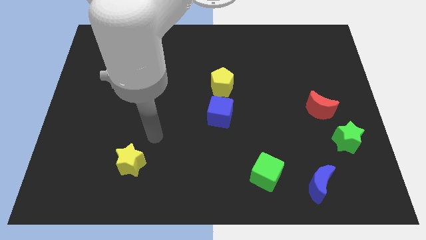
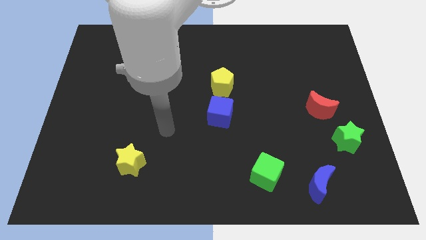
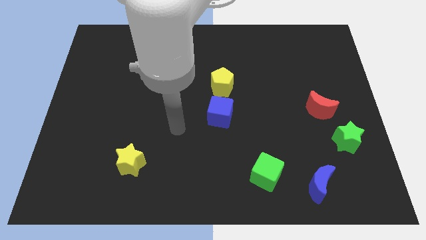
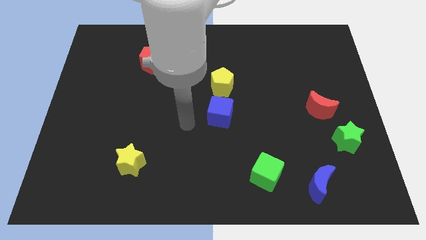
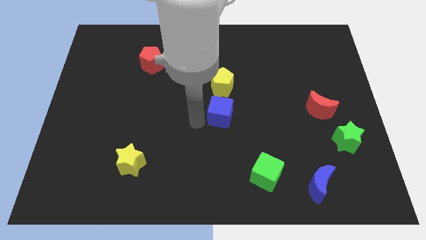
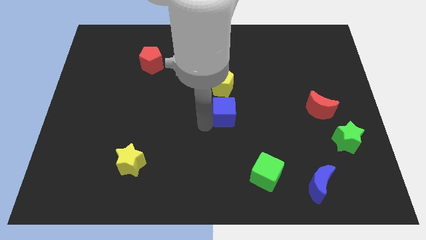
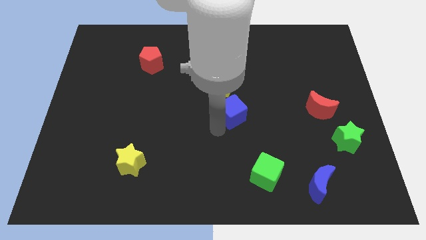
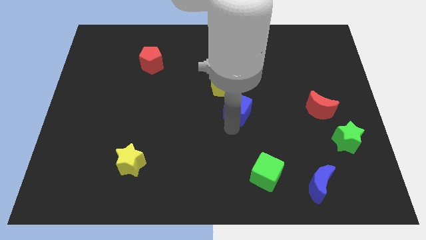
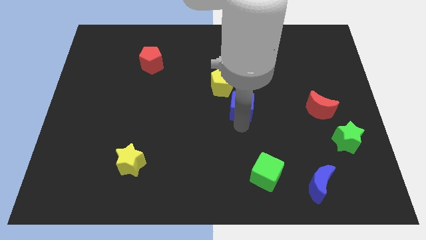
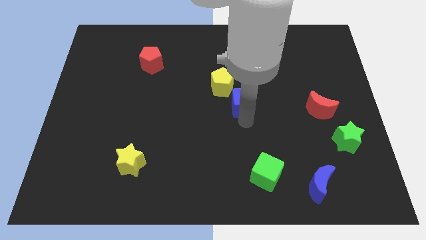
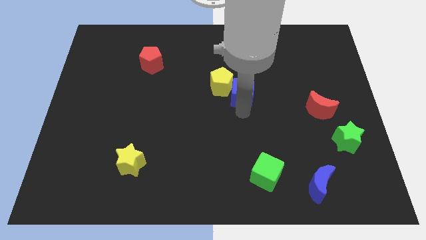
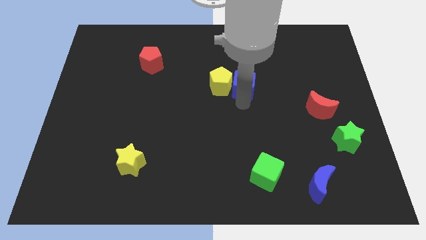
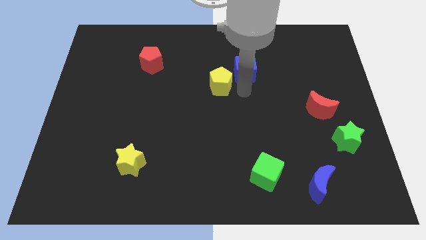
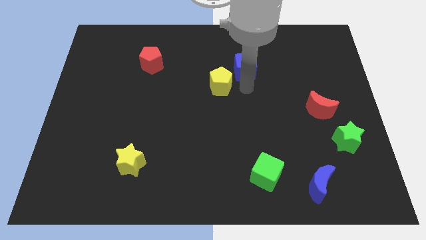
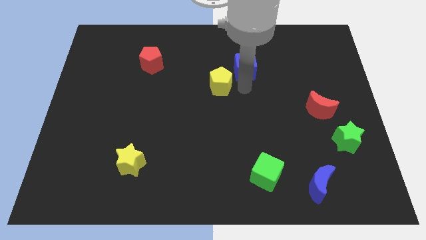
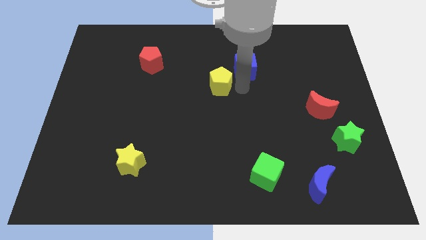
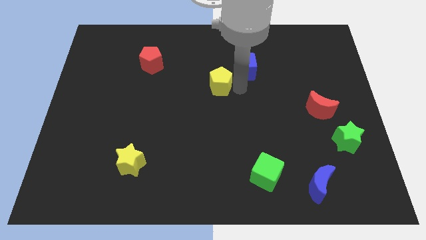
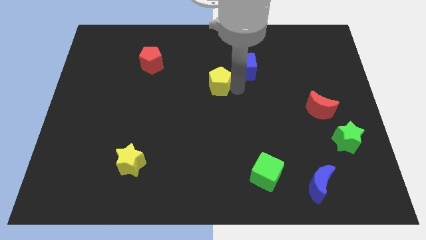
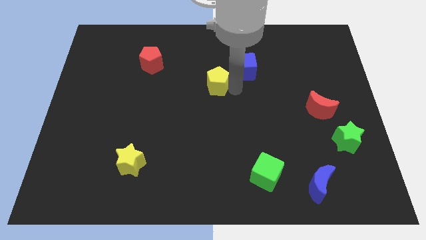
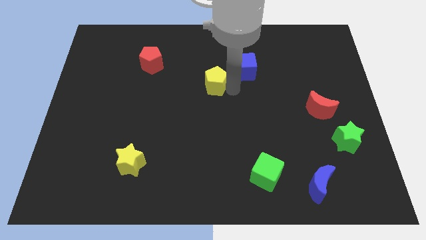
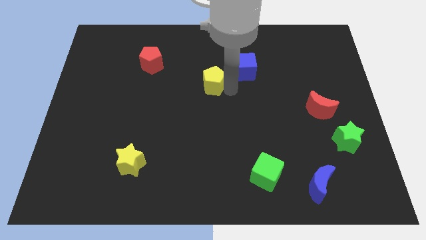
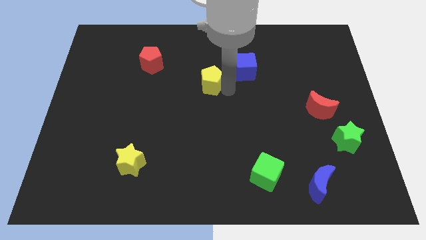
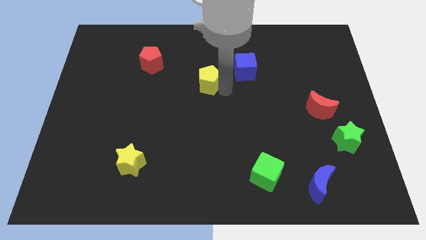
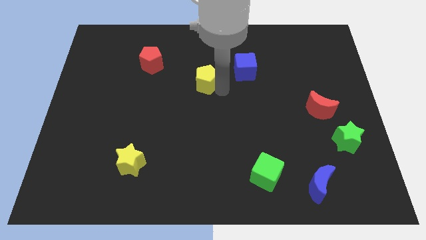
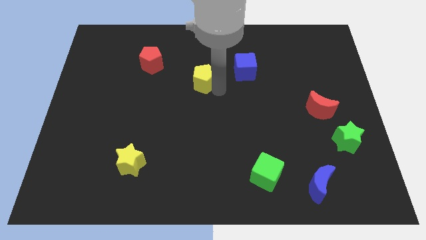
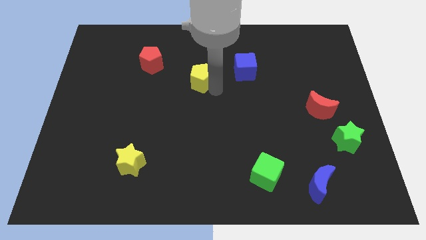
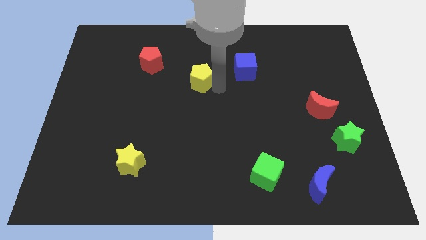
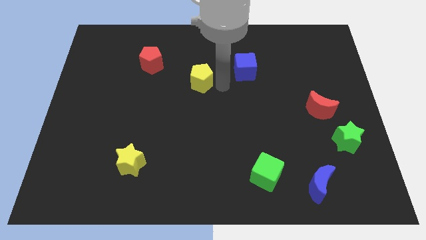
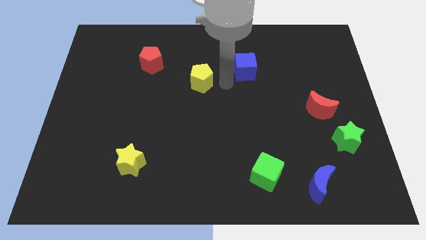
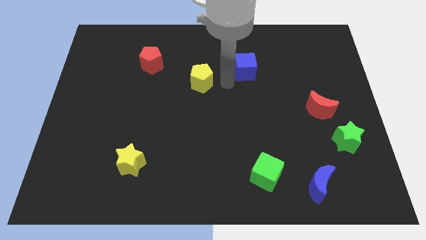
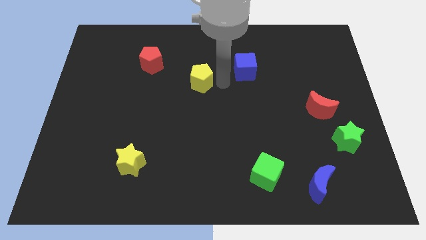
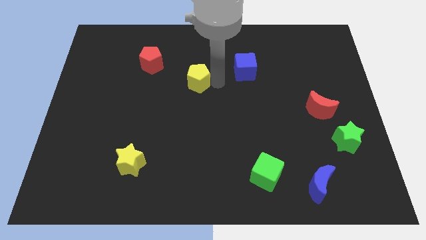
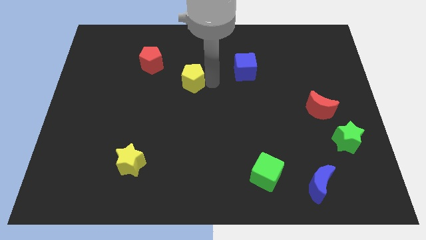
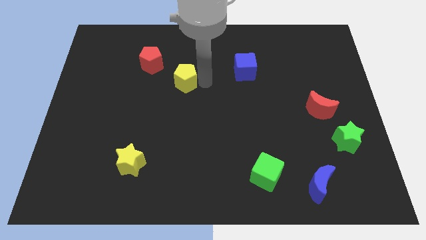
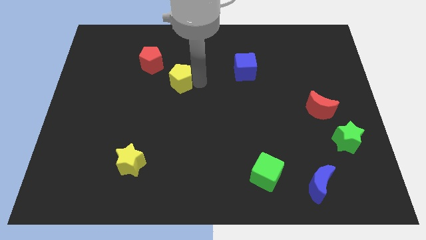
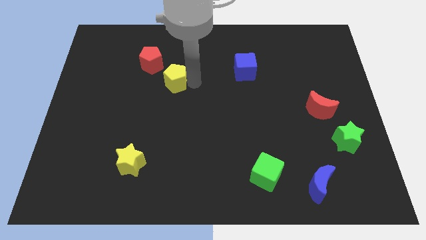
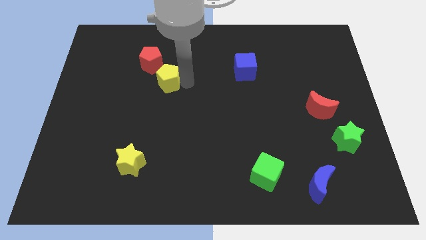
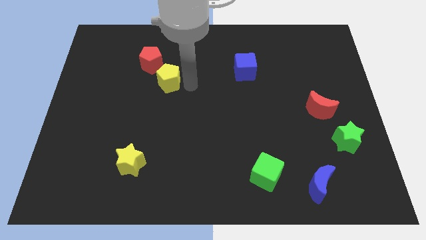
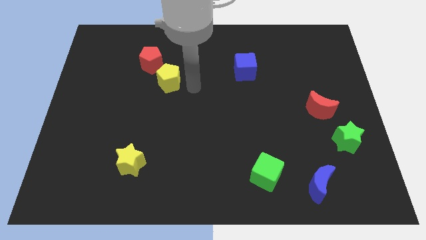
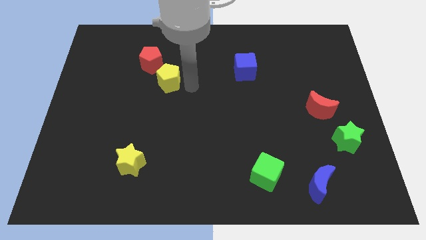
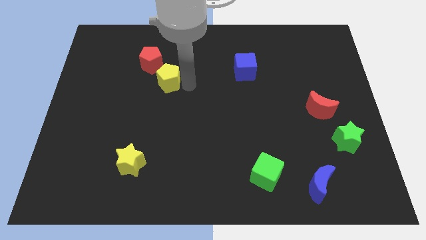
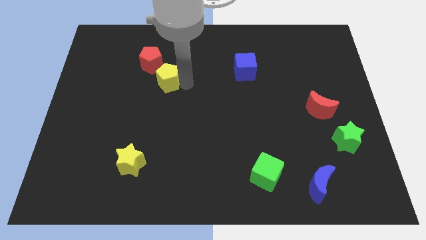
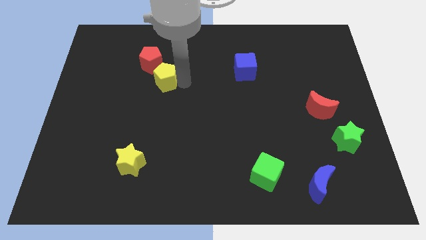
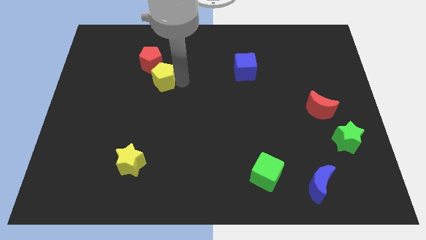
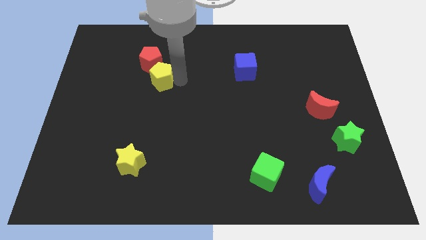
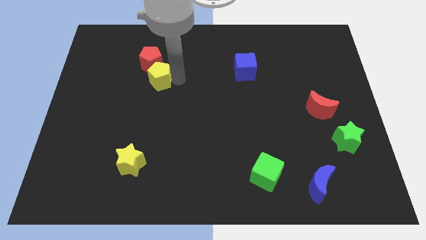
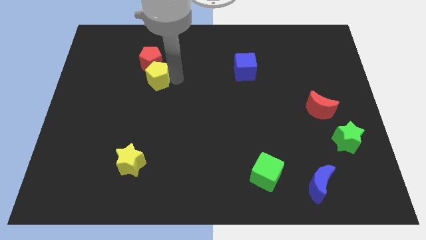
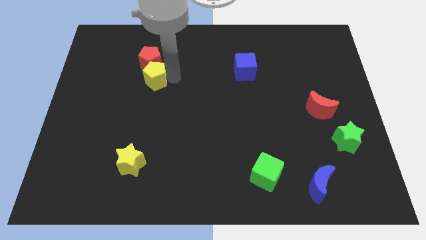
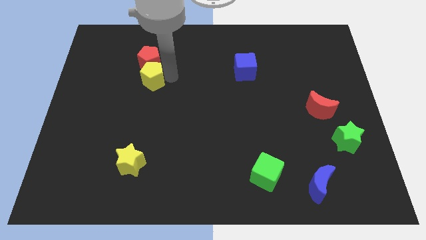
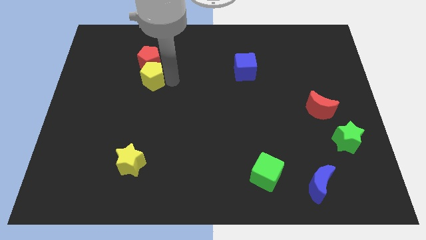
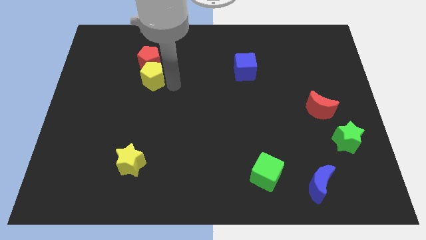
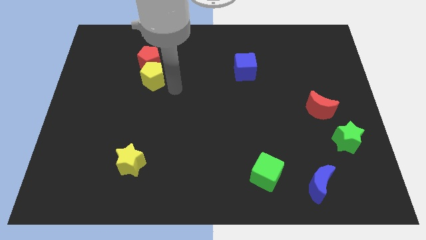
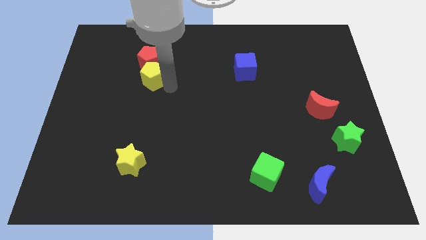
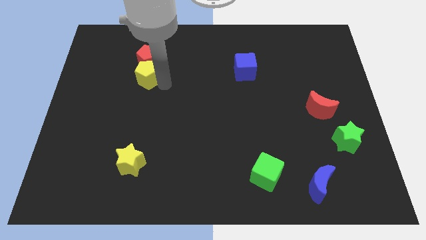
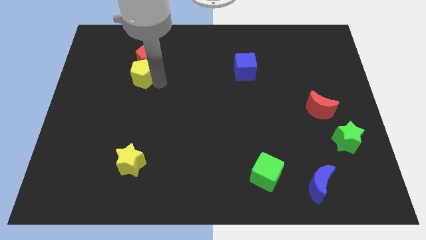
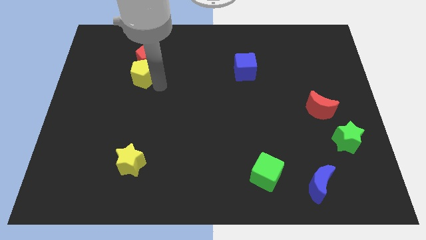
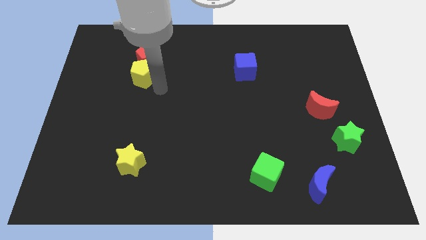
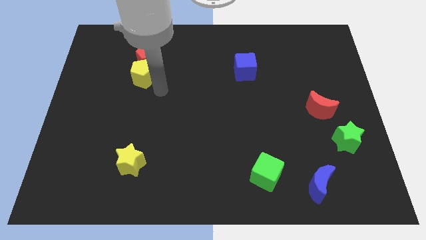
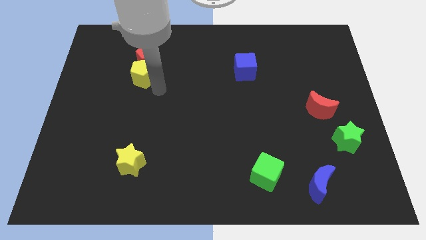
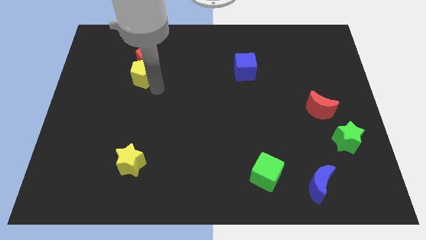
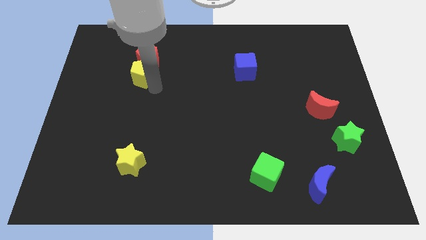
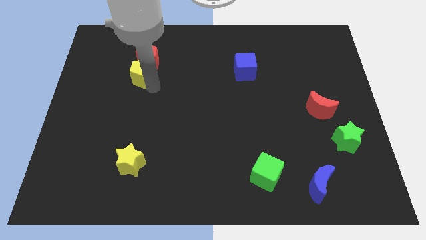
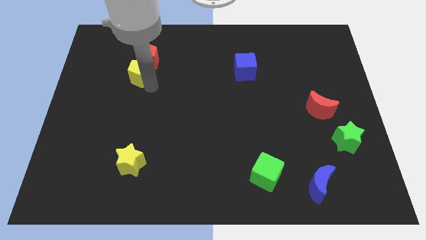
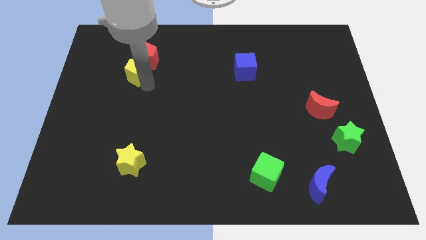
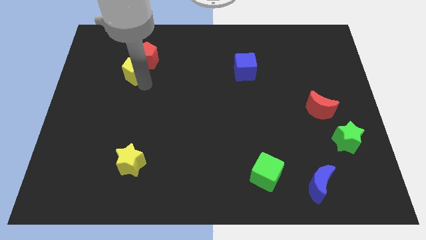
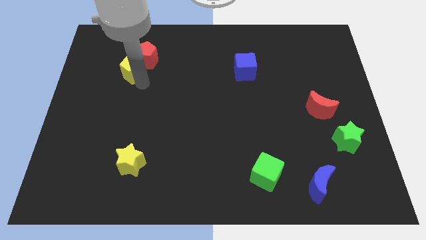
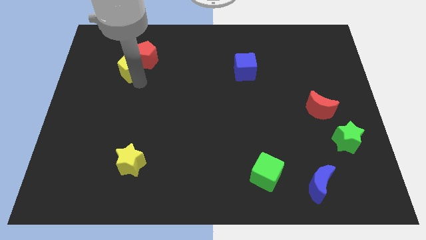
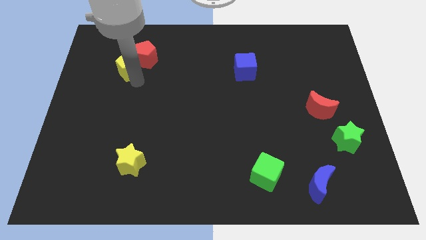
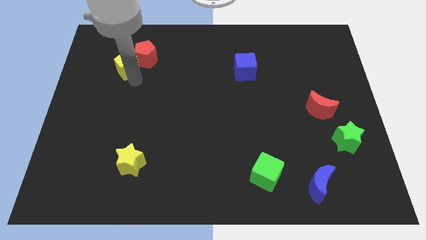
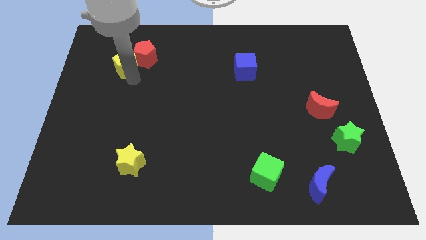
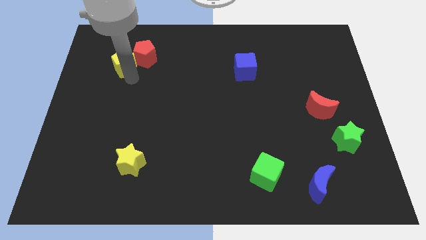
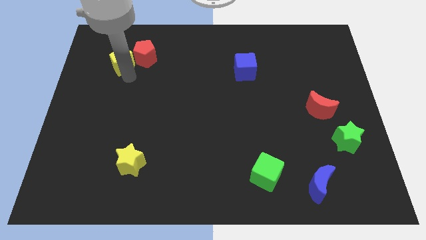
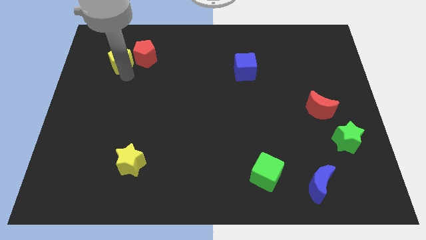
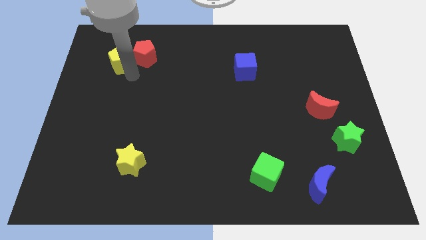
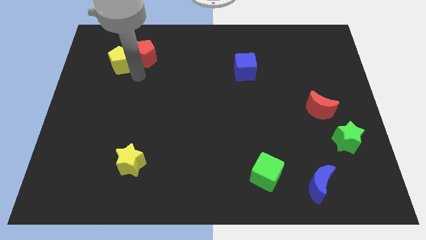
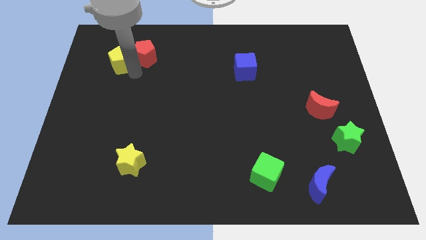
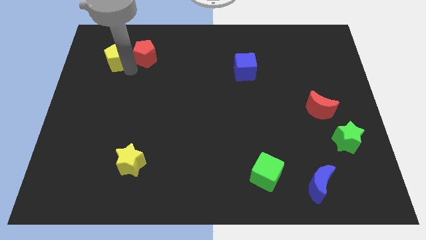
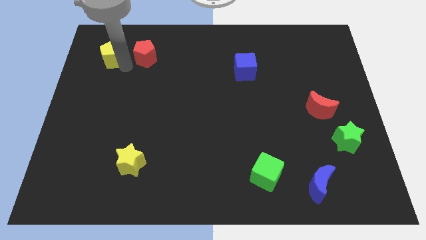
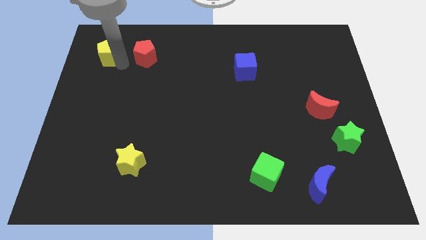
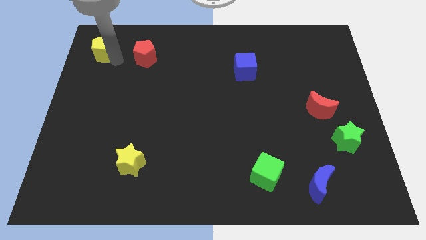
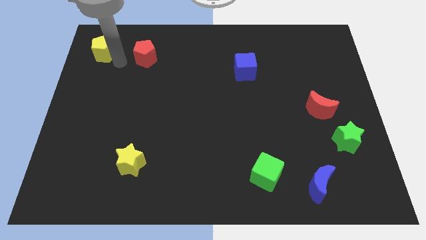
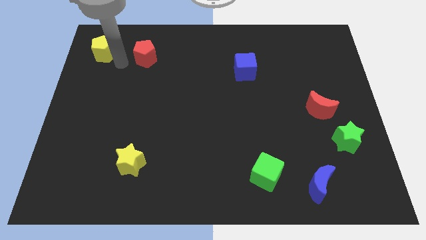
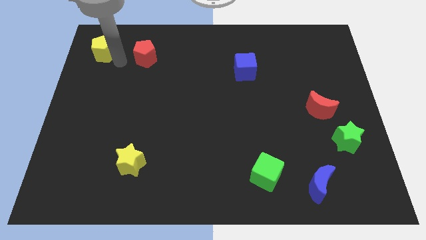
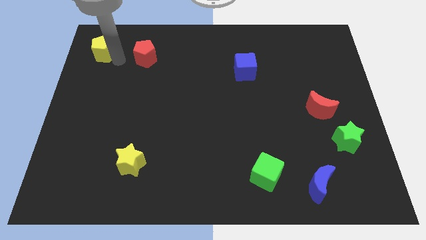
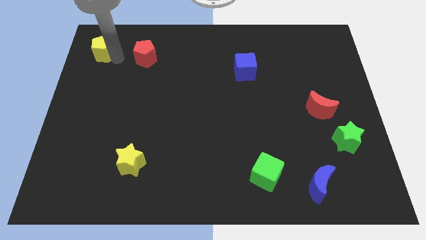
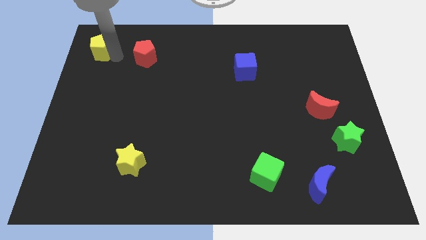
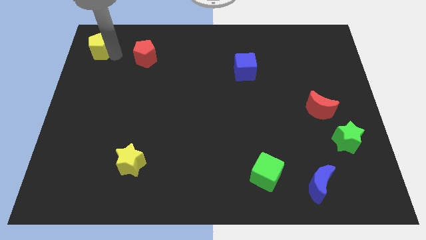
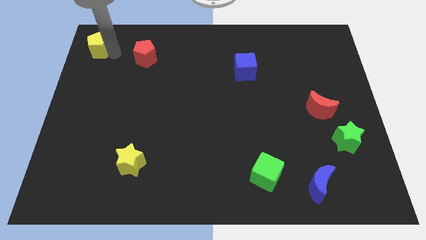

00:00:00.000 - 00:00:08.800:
push the yellow pentagon to the top left corner
